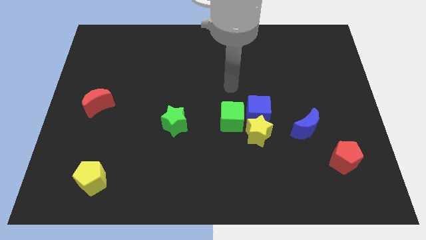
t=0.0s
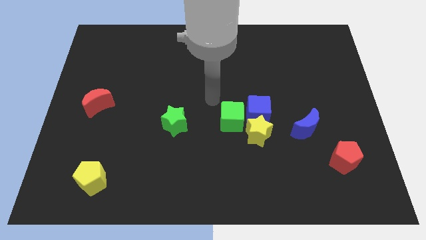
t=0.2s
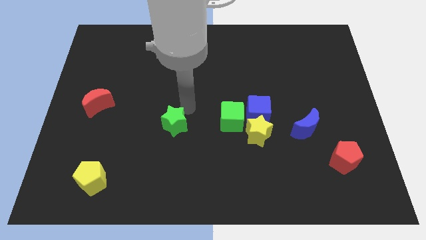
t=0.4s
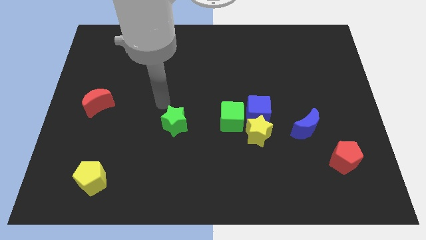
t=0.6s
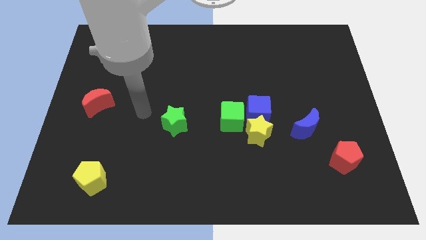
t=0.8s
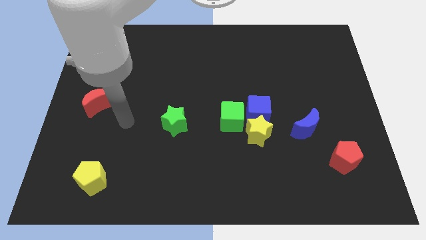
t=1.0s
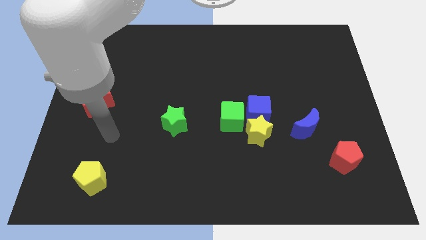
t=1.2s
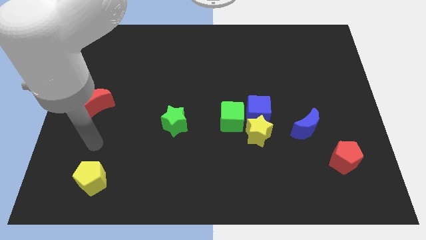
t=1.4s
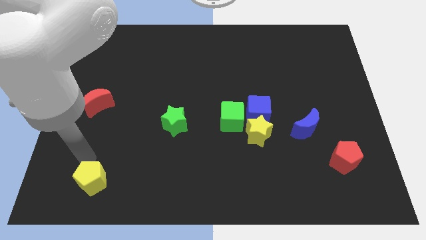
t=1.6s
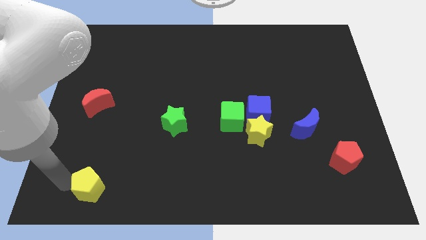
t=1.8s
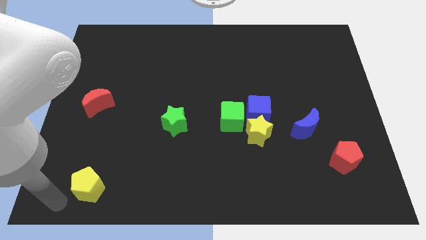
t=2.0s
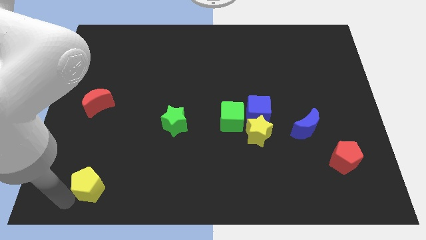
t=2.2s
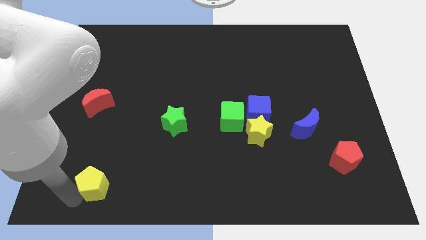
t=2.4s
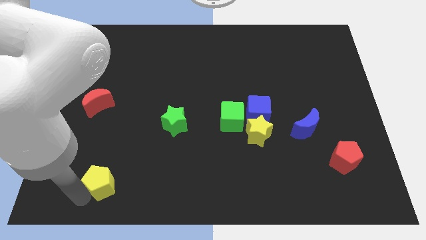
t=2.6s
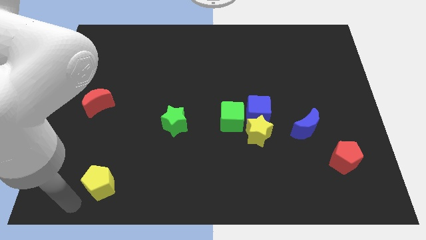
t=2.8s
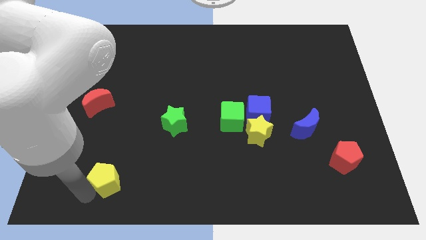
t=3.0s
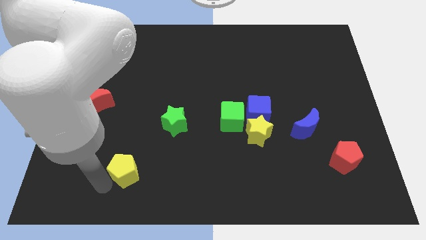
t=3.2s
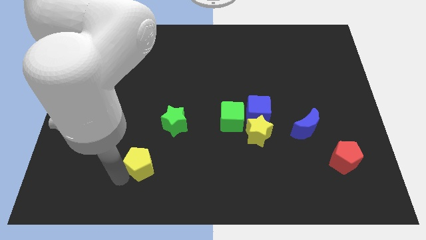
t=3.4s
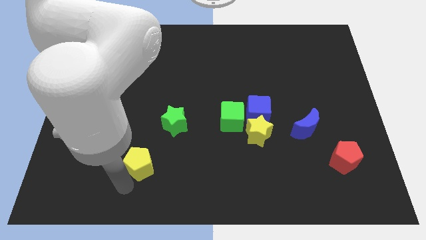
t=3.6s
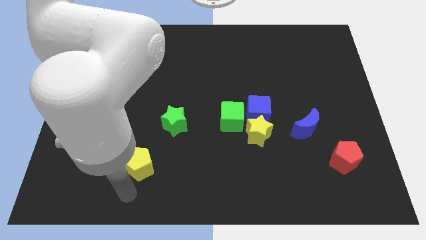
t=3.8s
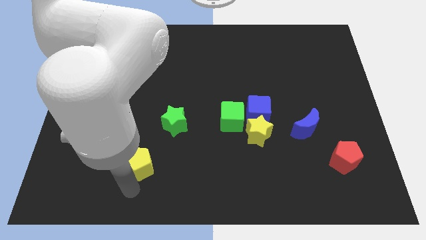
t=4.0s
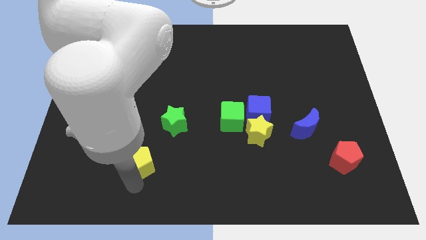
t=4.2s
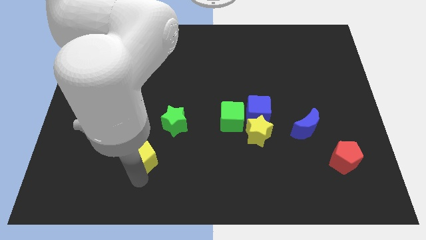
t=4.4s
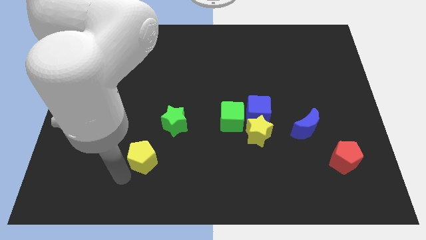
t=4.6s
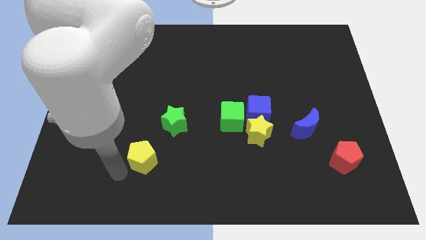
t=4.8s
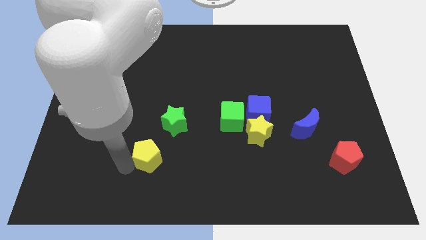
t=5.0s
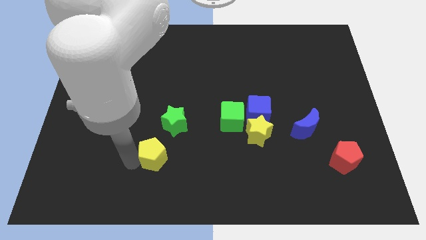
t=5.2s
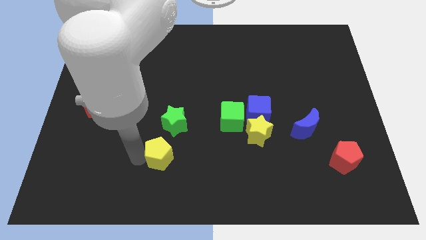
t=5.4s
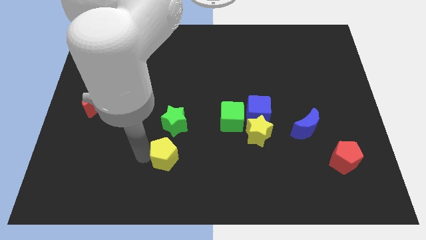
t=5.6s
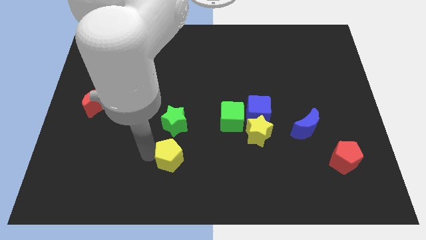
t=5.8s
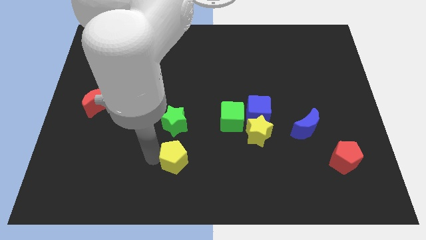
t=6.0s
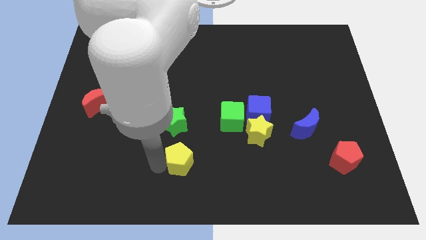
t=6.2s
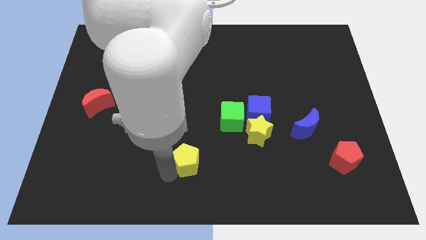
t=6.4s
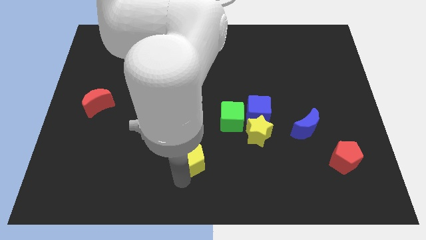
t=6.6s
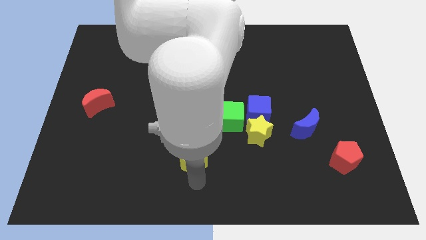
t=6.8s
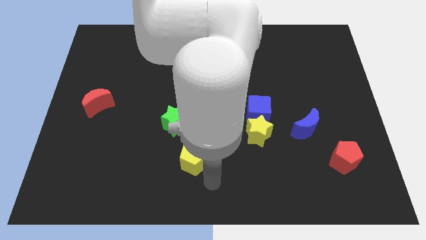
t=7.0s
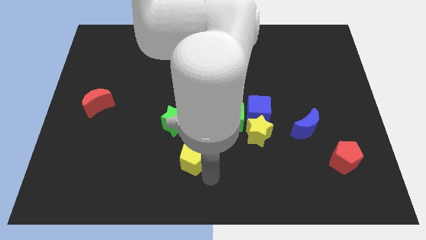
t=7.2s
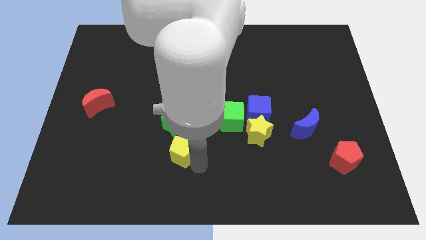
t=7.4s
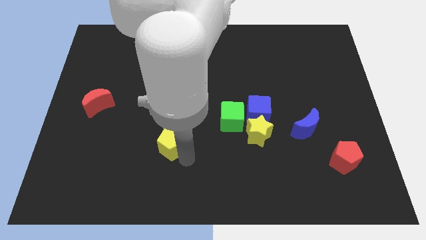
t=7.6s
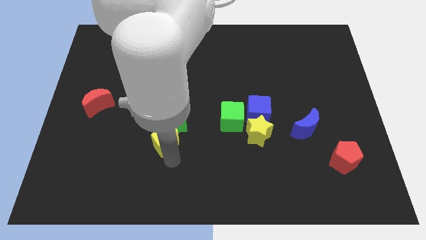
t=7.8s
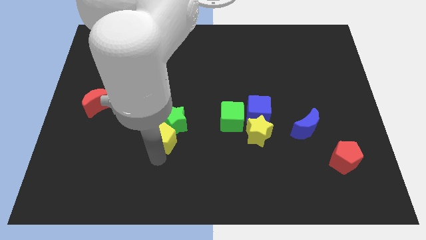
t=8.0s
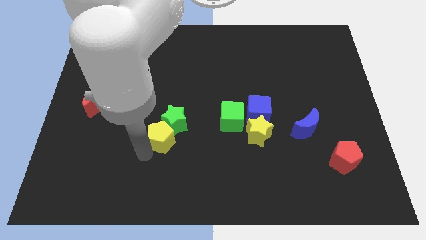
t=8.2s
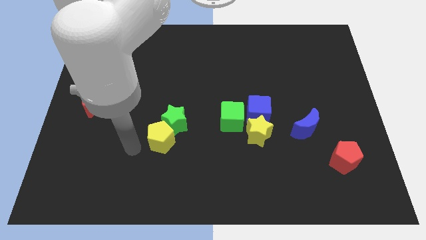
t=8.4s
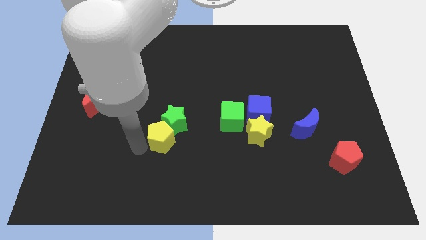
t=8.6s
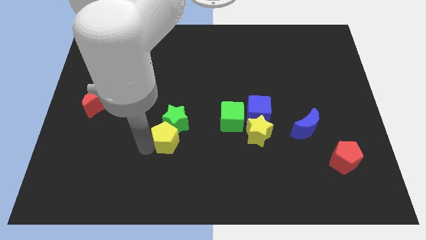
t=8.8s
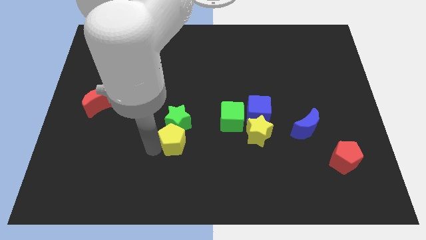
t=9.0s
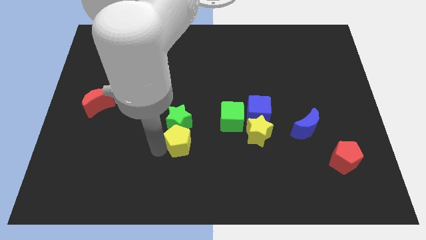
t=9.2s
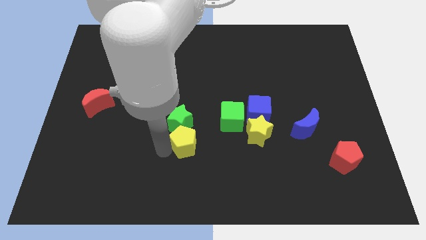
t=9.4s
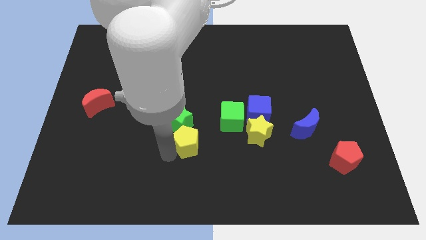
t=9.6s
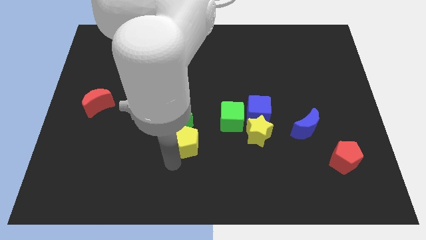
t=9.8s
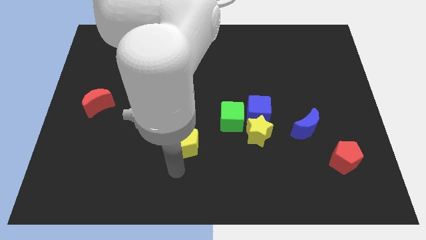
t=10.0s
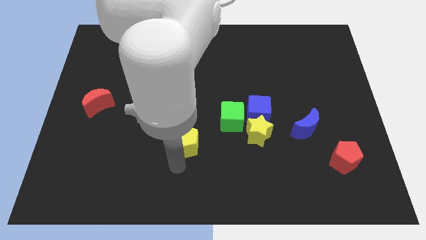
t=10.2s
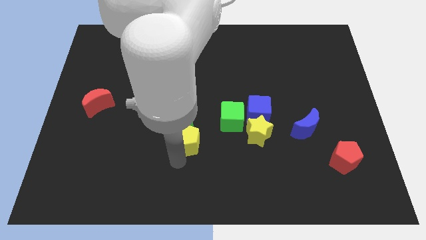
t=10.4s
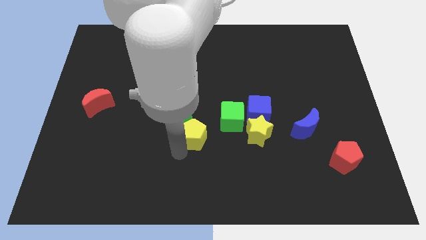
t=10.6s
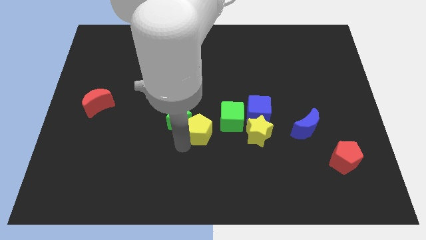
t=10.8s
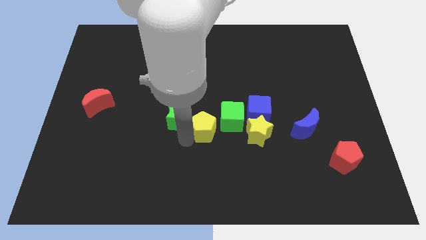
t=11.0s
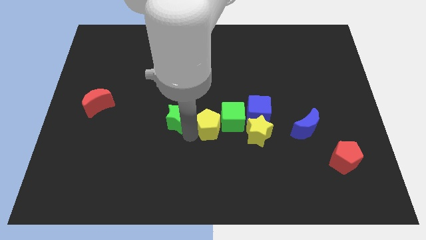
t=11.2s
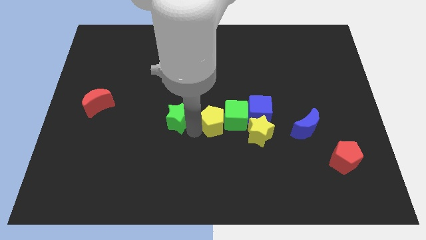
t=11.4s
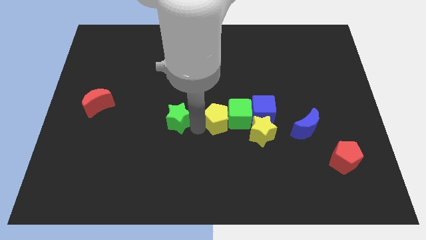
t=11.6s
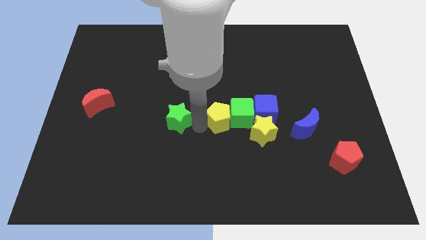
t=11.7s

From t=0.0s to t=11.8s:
move the yellow pentagon to the top left of the yellow star

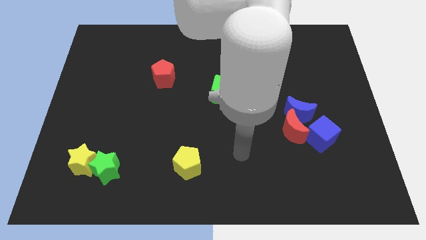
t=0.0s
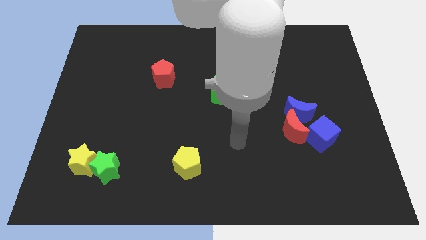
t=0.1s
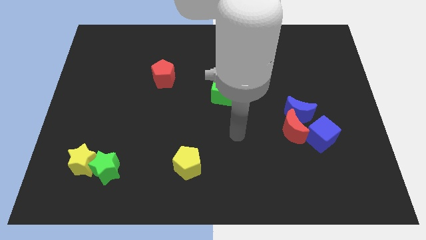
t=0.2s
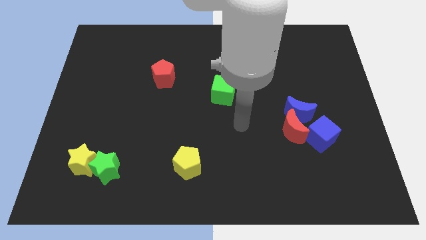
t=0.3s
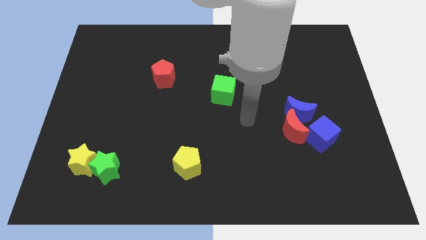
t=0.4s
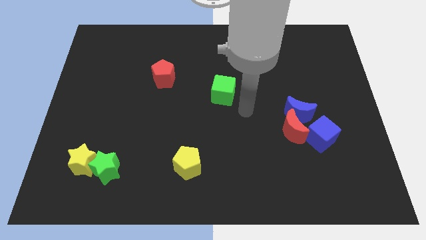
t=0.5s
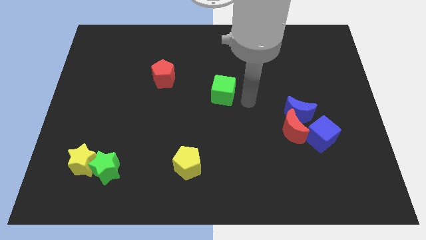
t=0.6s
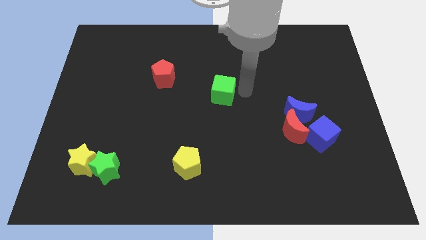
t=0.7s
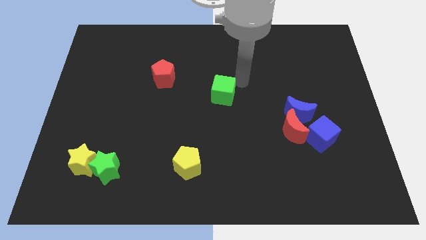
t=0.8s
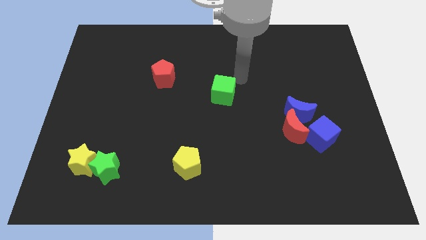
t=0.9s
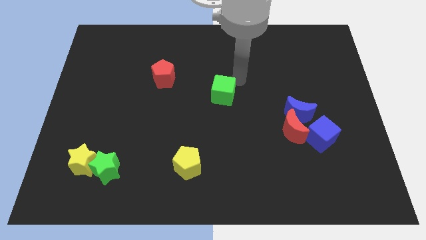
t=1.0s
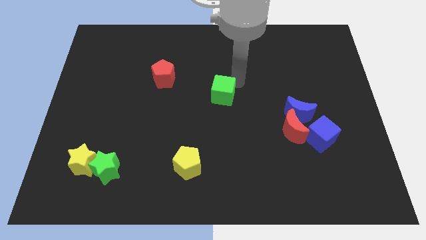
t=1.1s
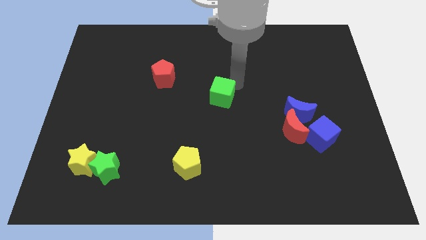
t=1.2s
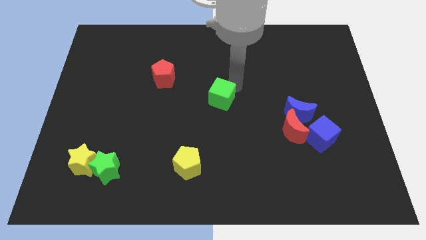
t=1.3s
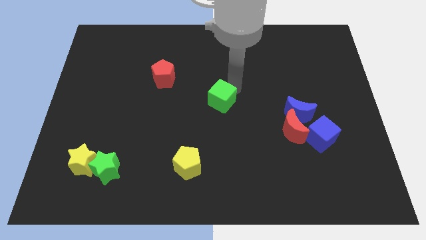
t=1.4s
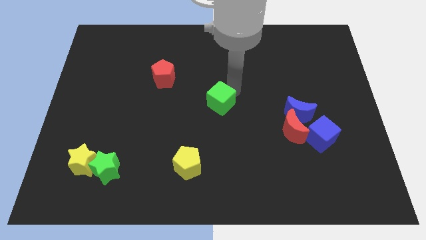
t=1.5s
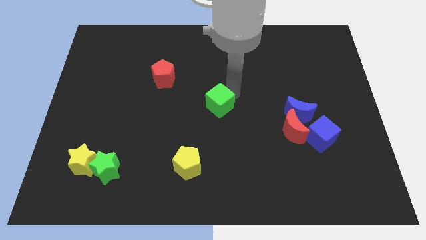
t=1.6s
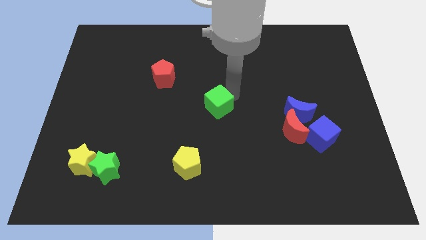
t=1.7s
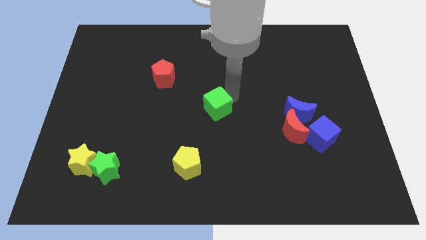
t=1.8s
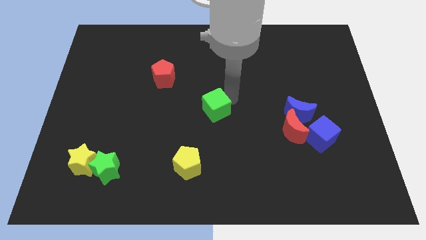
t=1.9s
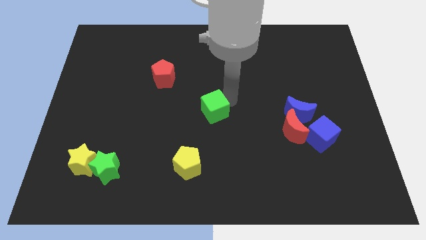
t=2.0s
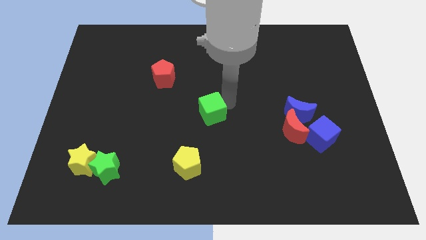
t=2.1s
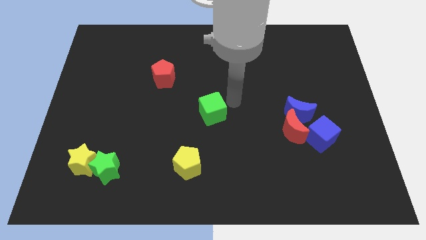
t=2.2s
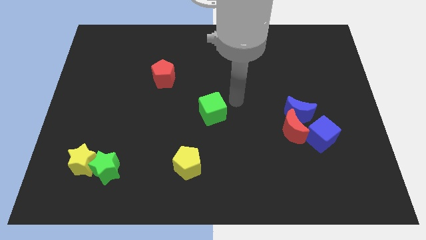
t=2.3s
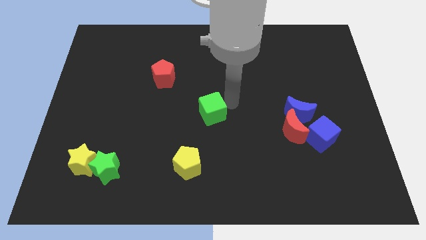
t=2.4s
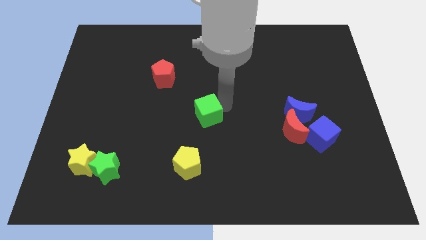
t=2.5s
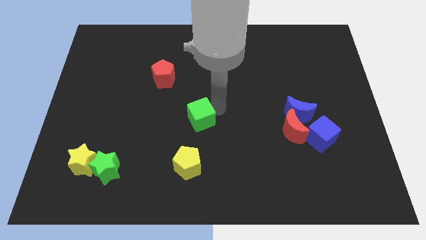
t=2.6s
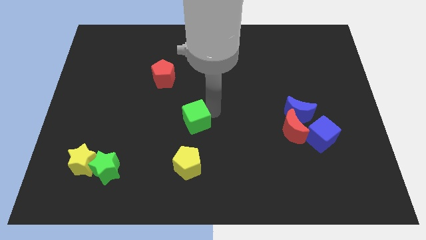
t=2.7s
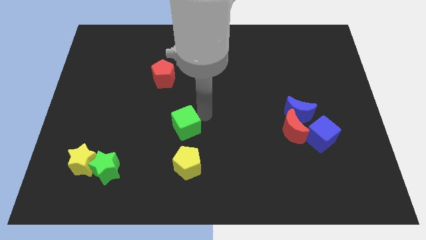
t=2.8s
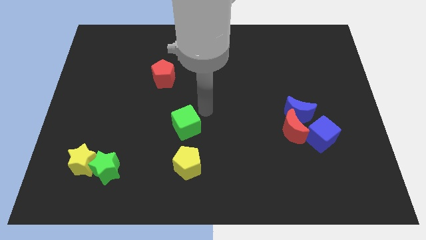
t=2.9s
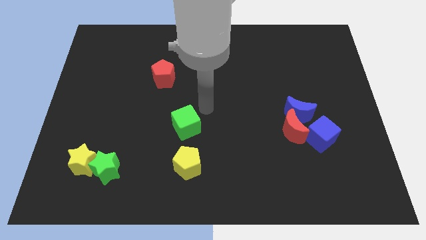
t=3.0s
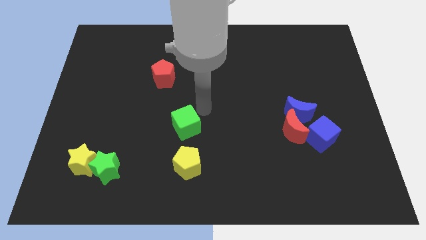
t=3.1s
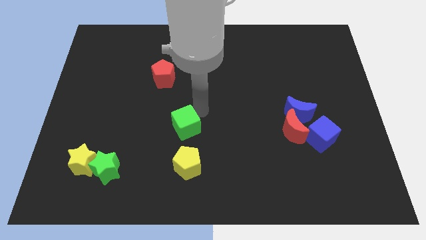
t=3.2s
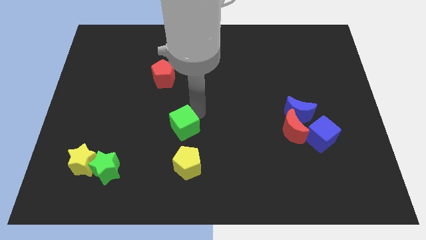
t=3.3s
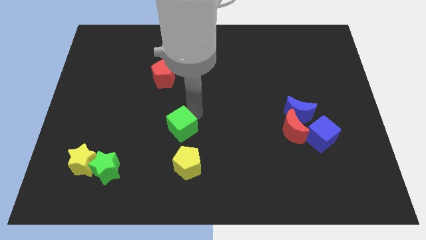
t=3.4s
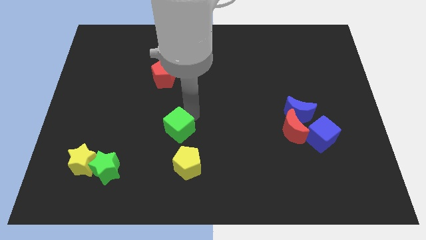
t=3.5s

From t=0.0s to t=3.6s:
push the green cube to the top left of the yellow pentagon
